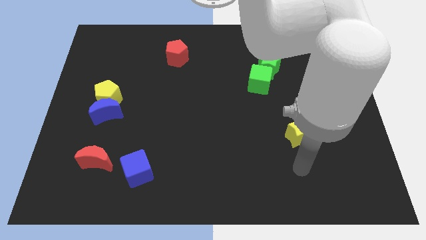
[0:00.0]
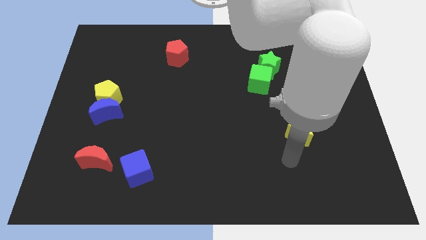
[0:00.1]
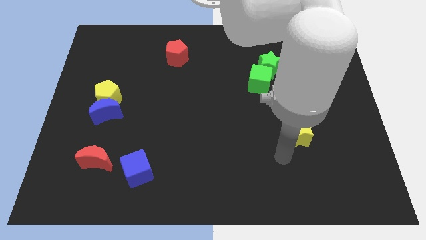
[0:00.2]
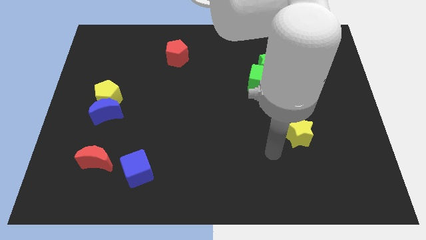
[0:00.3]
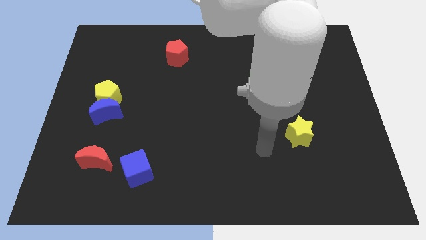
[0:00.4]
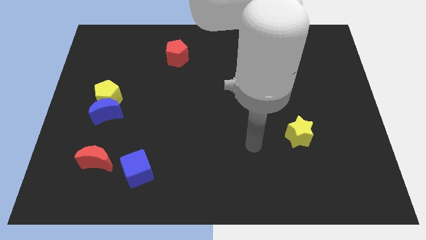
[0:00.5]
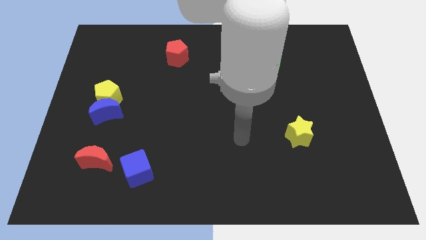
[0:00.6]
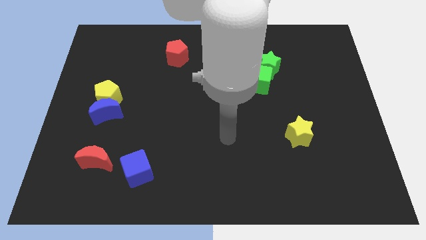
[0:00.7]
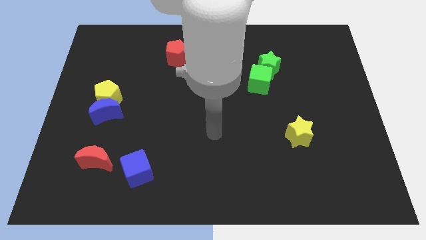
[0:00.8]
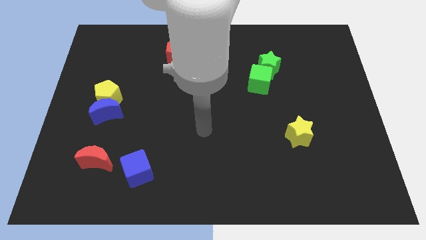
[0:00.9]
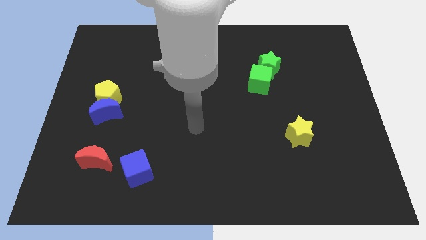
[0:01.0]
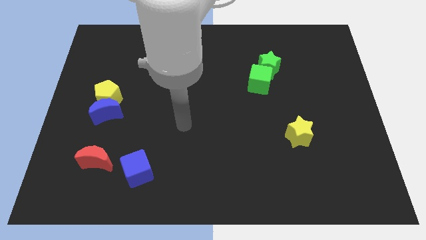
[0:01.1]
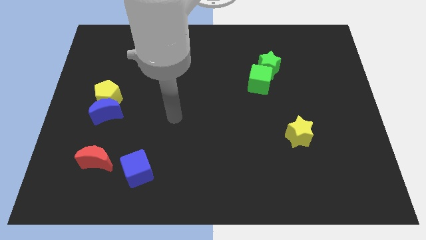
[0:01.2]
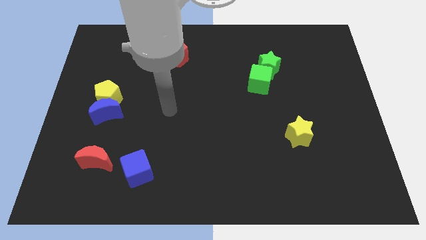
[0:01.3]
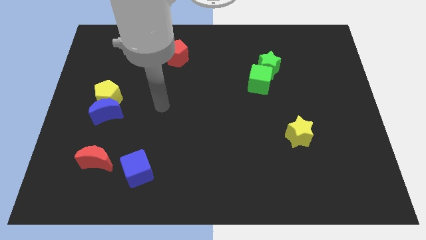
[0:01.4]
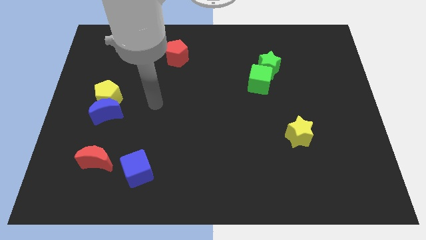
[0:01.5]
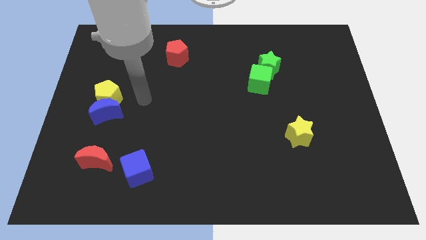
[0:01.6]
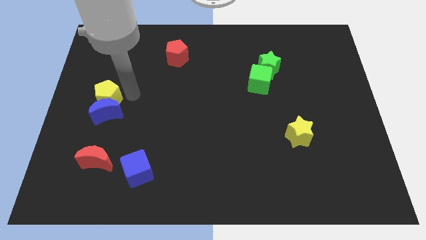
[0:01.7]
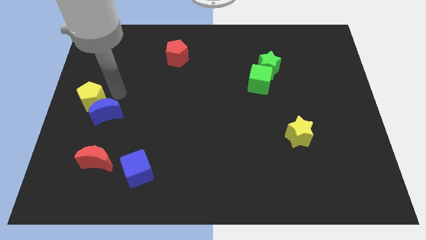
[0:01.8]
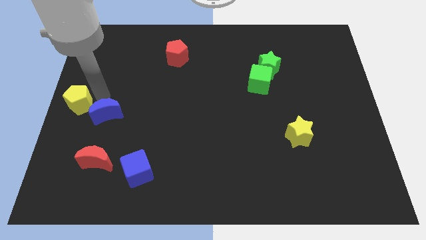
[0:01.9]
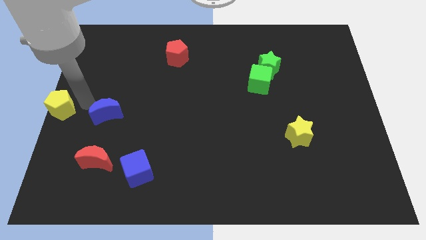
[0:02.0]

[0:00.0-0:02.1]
pull the blue moon apart from the yellow pentagon

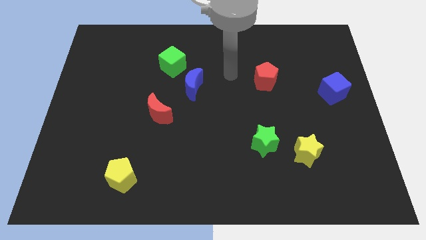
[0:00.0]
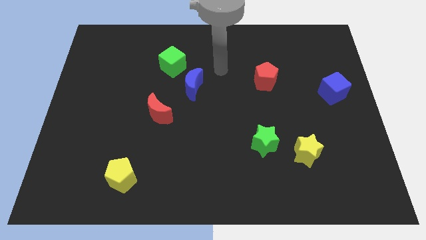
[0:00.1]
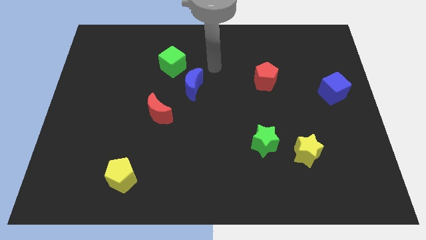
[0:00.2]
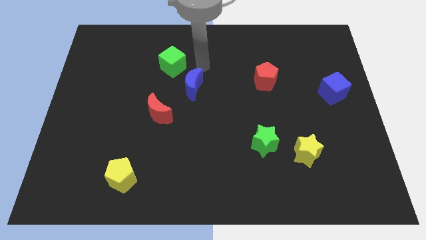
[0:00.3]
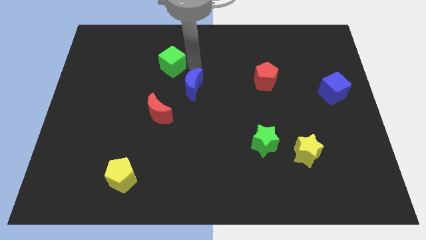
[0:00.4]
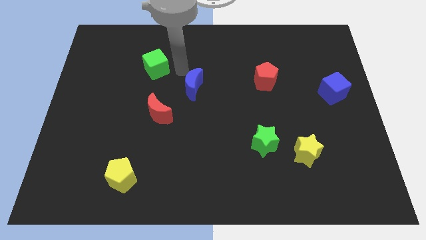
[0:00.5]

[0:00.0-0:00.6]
pull the blue moon apart from the green cube

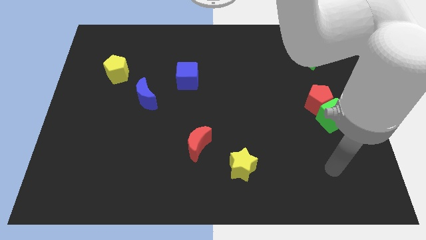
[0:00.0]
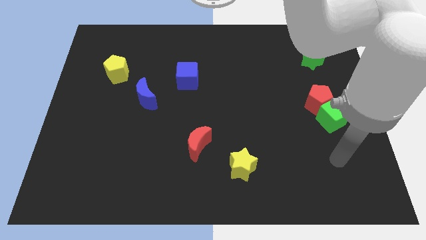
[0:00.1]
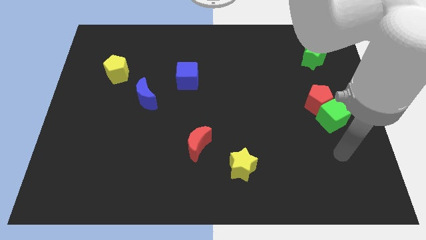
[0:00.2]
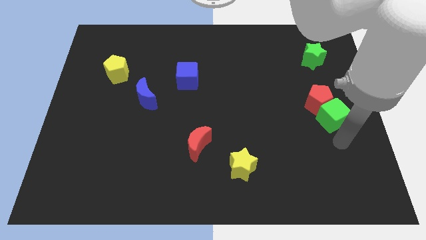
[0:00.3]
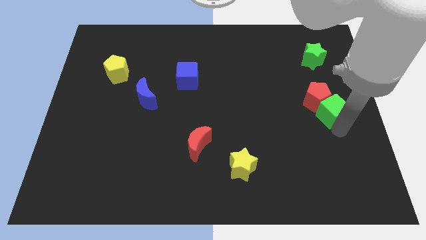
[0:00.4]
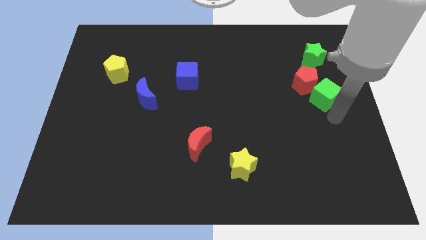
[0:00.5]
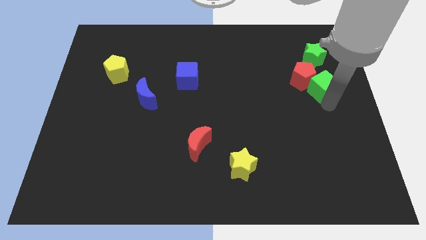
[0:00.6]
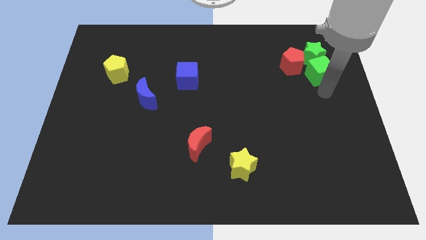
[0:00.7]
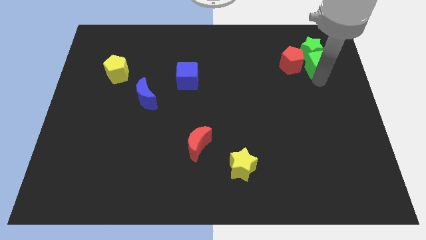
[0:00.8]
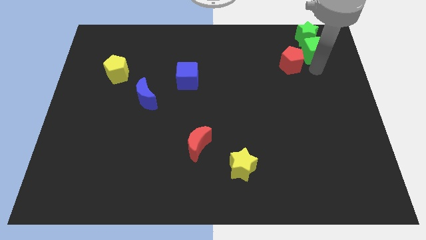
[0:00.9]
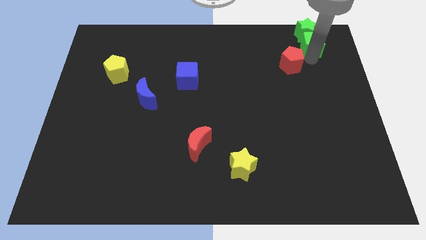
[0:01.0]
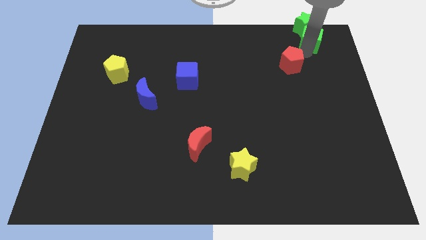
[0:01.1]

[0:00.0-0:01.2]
separate the red pentagon from the green cube

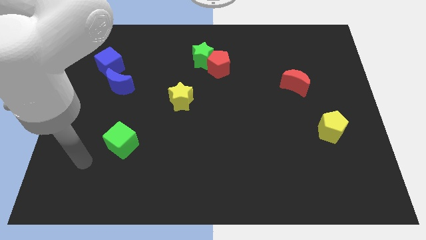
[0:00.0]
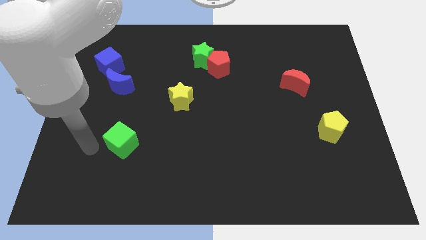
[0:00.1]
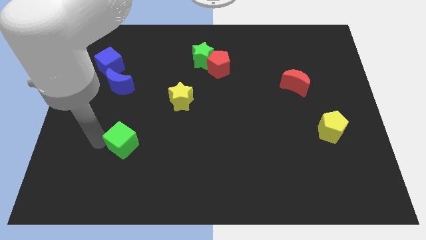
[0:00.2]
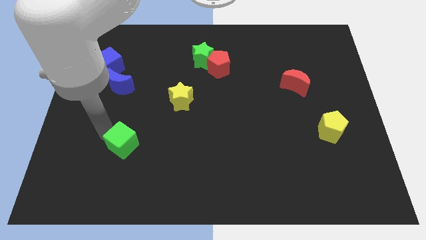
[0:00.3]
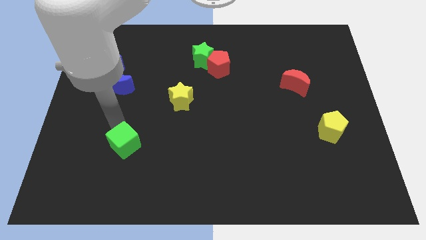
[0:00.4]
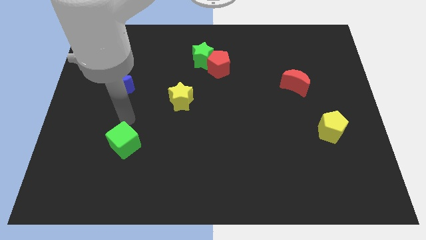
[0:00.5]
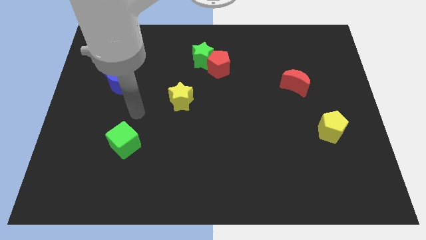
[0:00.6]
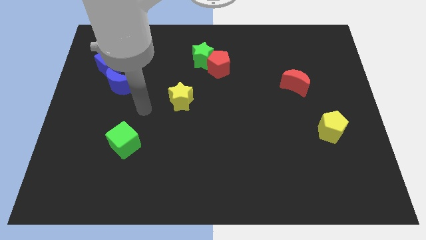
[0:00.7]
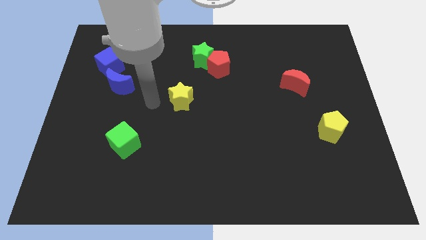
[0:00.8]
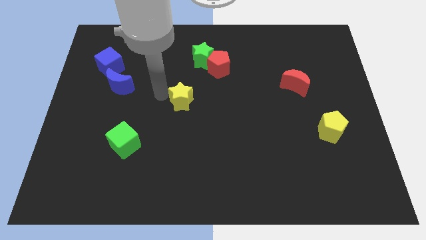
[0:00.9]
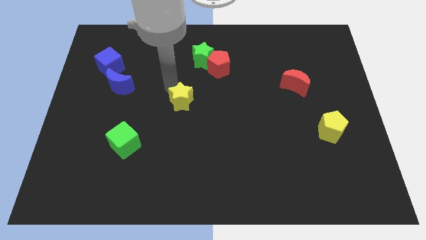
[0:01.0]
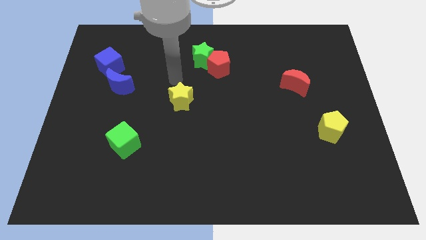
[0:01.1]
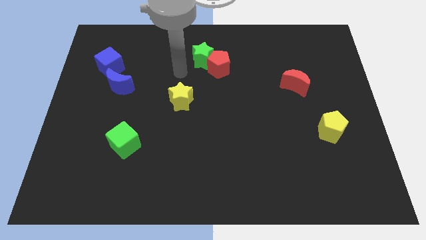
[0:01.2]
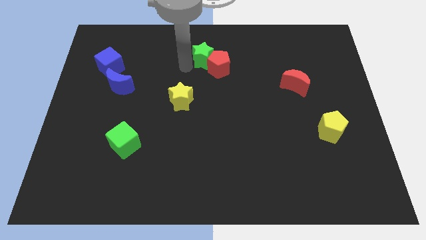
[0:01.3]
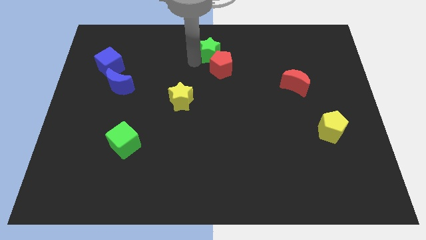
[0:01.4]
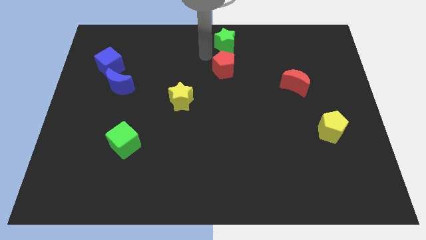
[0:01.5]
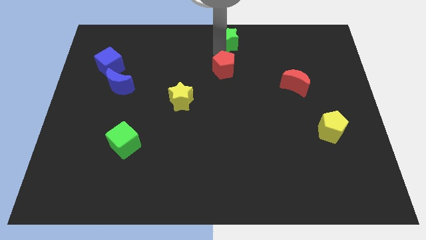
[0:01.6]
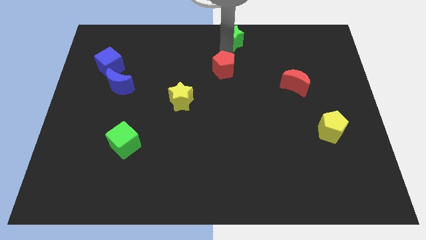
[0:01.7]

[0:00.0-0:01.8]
pull the red pentagon apart from the green star

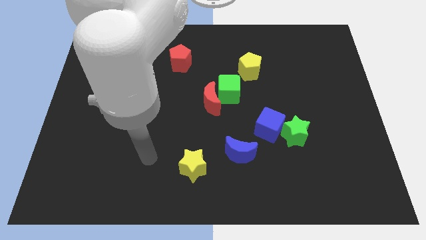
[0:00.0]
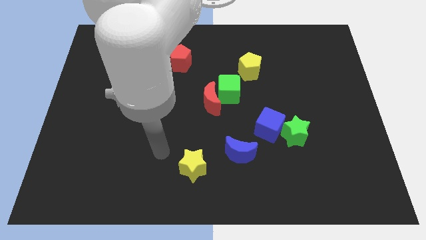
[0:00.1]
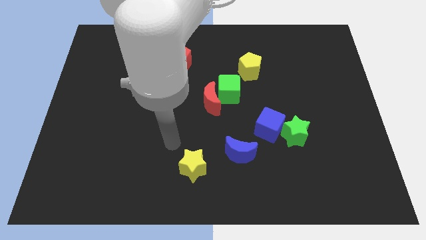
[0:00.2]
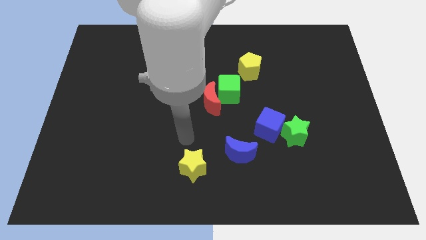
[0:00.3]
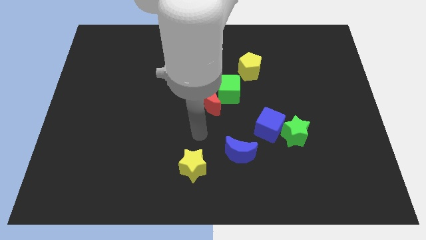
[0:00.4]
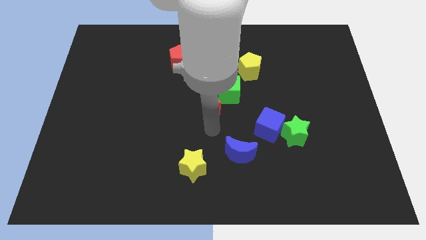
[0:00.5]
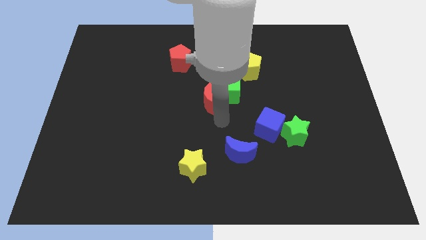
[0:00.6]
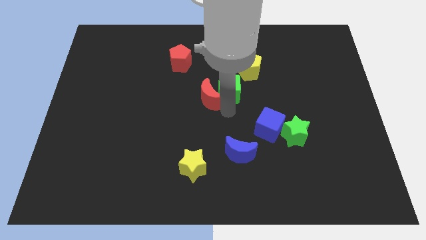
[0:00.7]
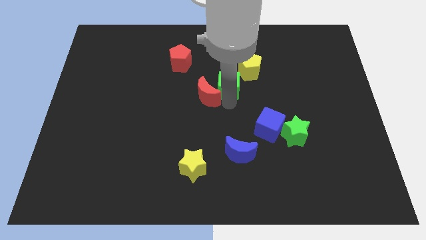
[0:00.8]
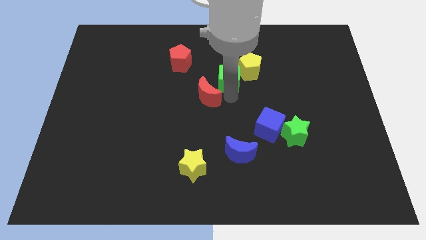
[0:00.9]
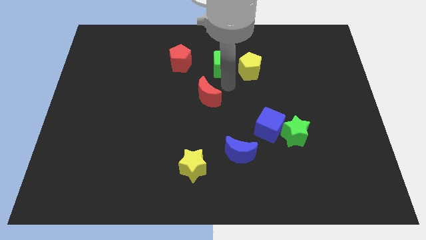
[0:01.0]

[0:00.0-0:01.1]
separate the red moon from the green cube

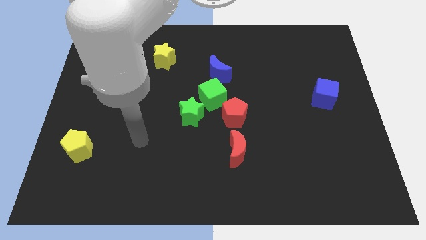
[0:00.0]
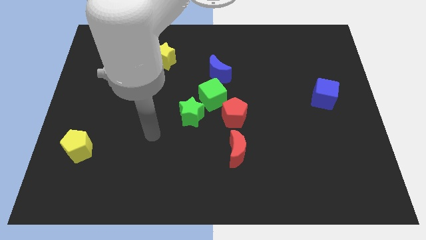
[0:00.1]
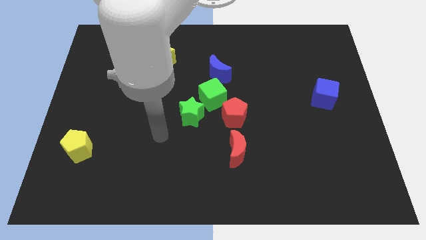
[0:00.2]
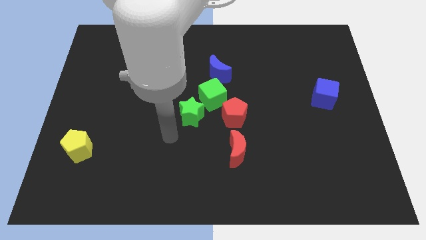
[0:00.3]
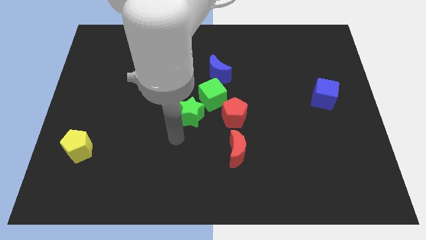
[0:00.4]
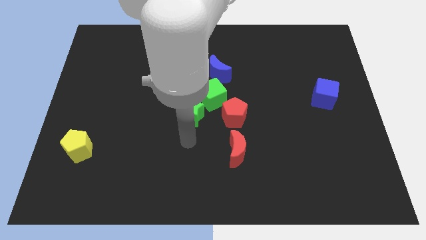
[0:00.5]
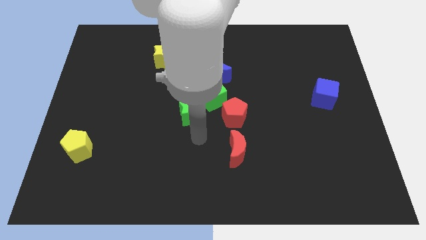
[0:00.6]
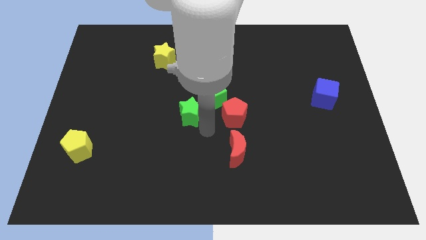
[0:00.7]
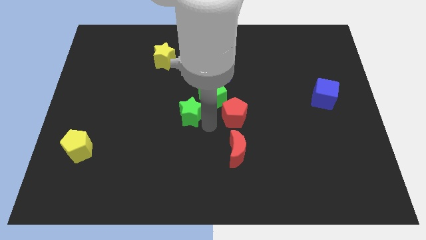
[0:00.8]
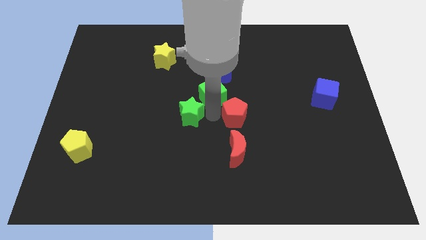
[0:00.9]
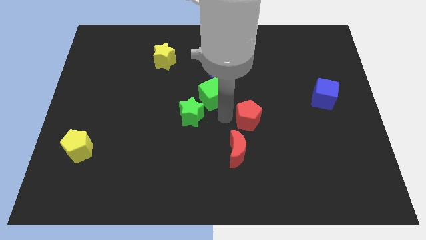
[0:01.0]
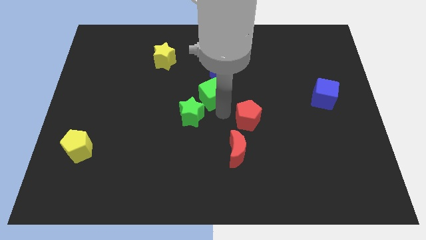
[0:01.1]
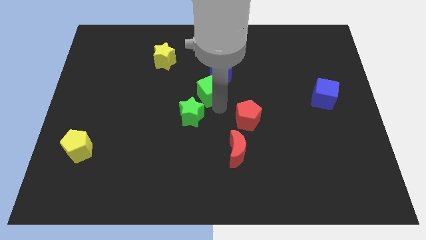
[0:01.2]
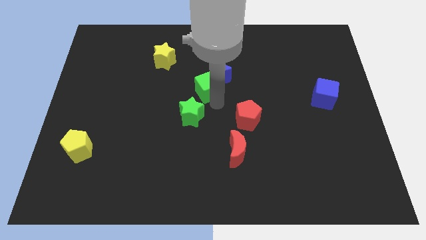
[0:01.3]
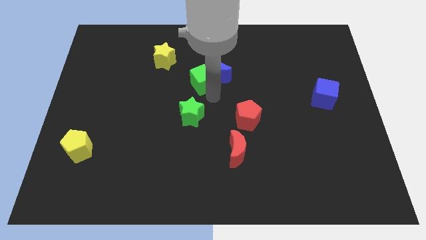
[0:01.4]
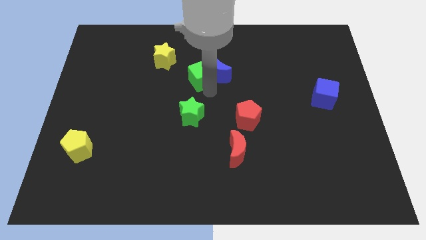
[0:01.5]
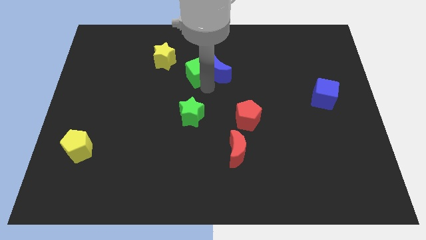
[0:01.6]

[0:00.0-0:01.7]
pull the green cube apart from the clump

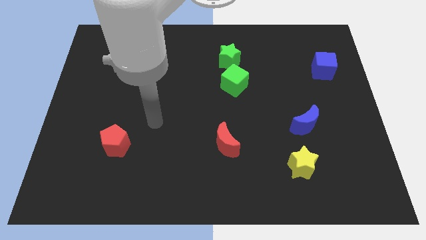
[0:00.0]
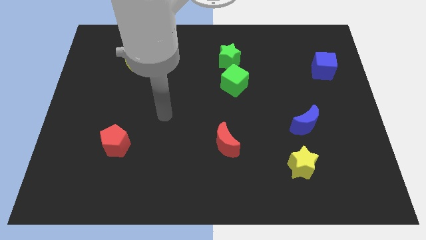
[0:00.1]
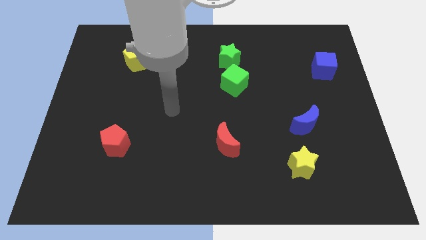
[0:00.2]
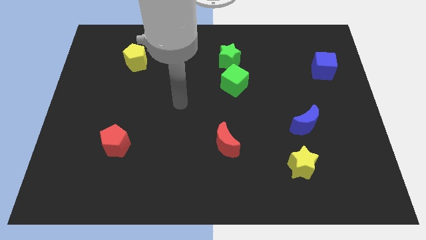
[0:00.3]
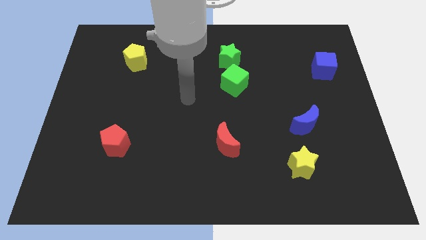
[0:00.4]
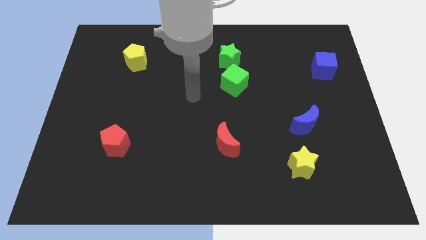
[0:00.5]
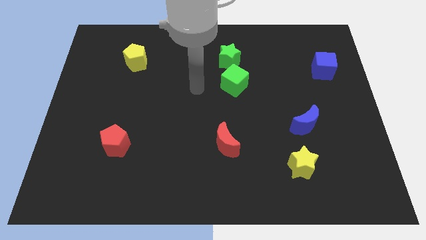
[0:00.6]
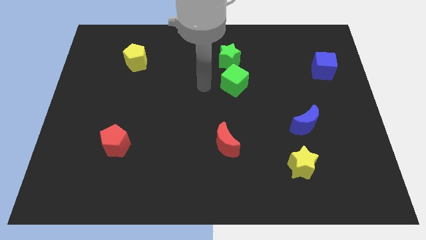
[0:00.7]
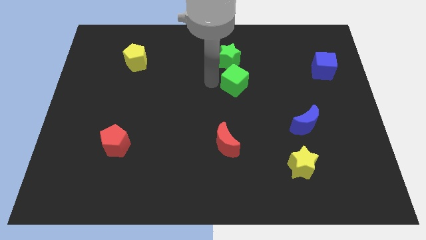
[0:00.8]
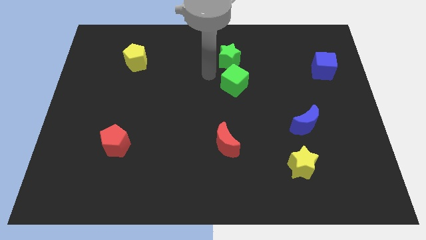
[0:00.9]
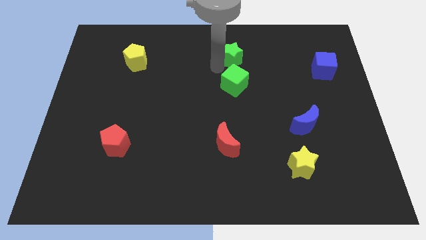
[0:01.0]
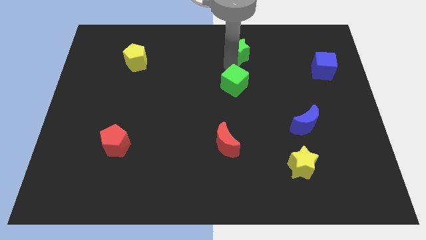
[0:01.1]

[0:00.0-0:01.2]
pull the green cube apart from the green star
